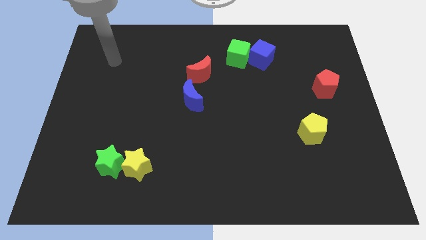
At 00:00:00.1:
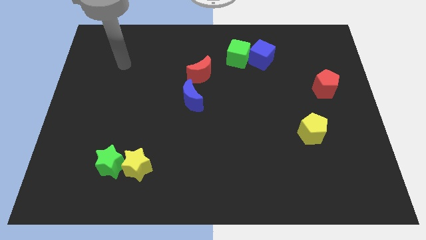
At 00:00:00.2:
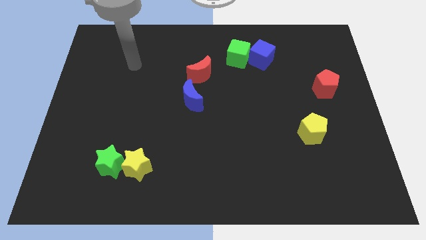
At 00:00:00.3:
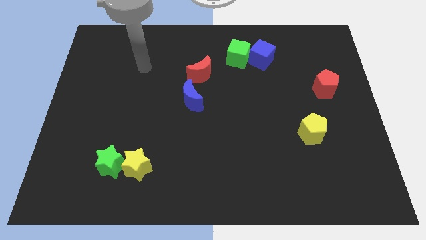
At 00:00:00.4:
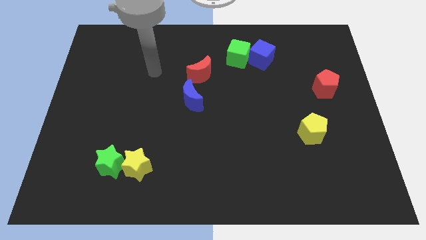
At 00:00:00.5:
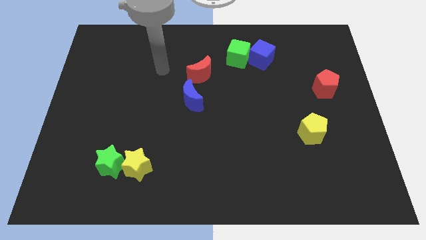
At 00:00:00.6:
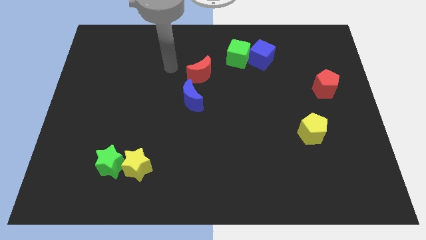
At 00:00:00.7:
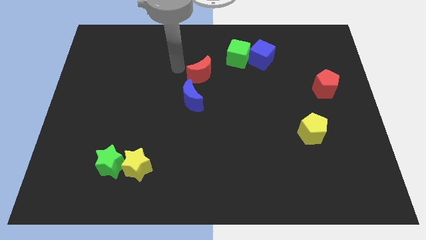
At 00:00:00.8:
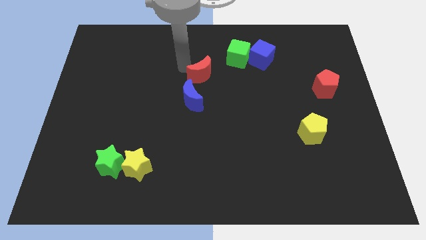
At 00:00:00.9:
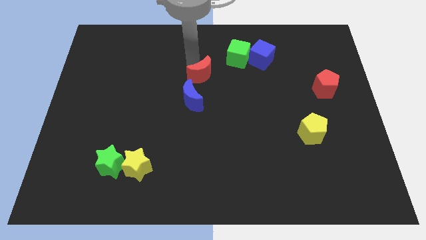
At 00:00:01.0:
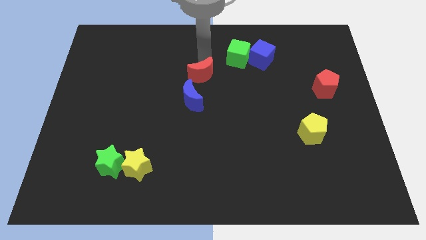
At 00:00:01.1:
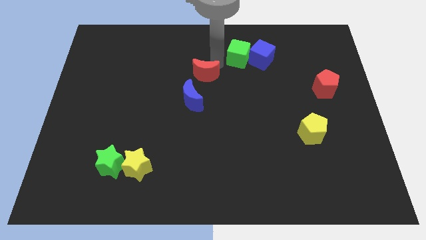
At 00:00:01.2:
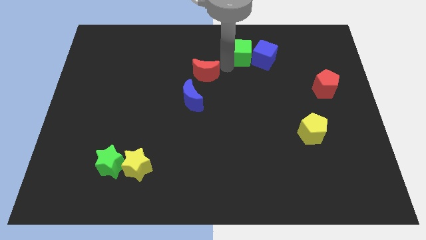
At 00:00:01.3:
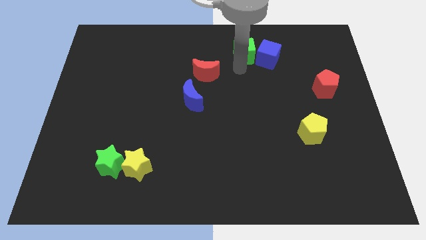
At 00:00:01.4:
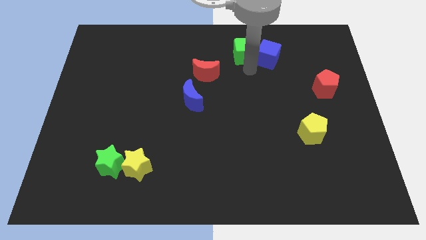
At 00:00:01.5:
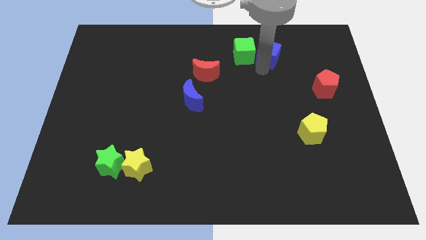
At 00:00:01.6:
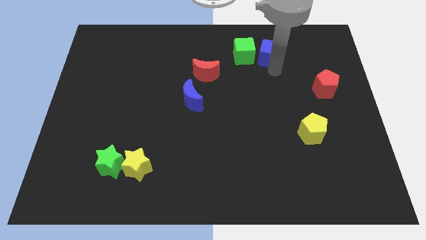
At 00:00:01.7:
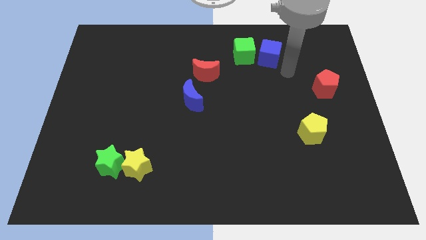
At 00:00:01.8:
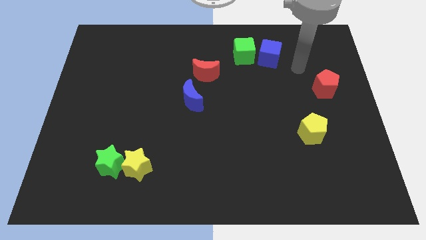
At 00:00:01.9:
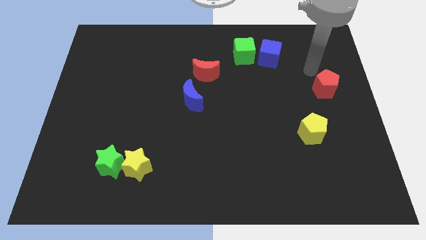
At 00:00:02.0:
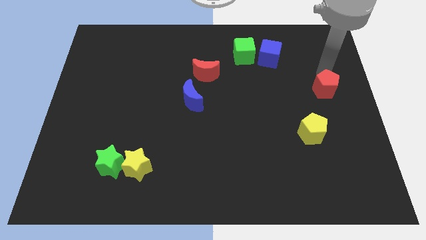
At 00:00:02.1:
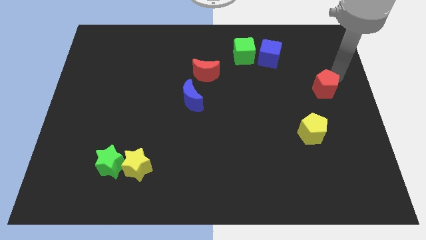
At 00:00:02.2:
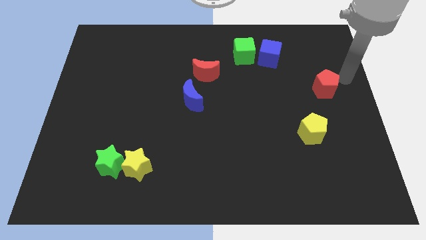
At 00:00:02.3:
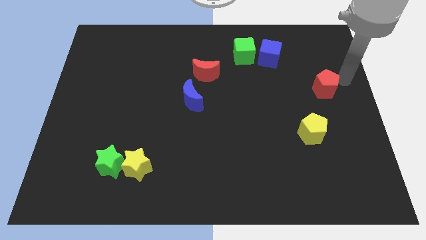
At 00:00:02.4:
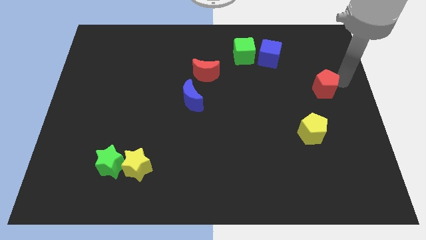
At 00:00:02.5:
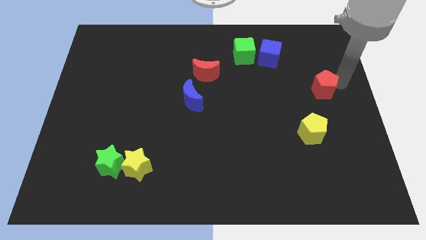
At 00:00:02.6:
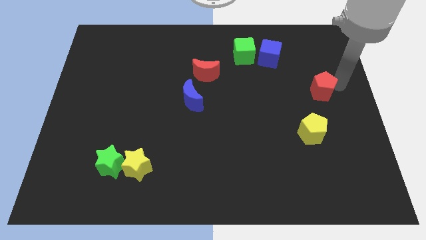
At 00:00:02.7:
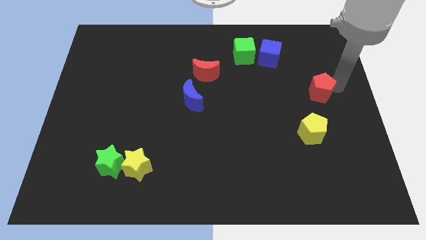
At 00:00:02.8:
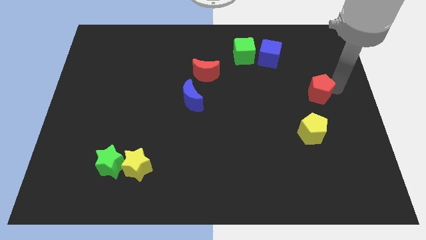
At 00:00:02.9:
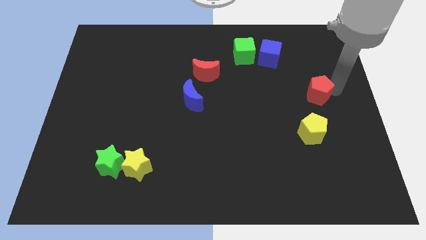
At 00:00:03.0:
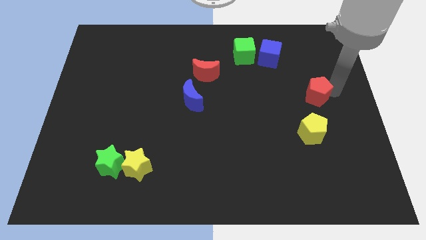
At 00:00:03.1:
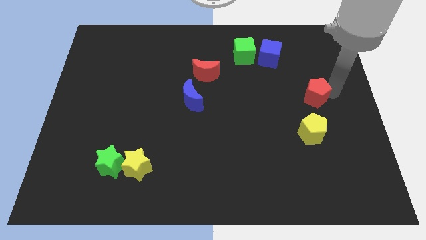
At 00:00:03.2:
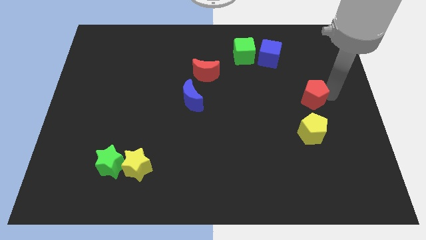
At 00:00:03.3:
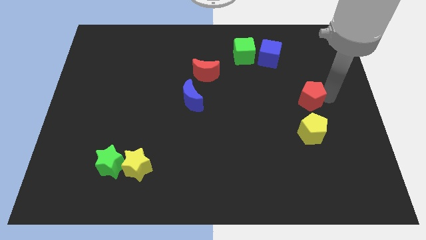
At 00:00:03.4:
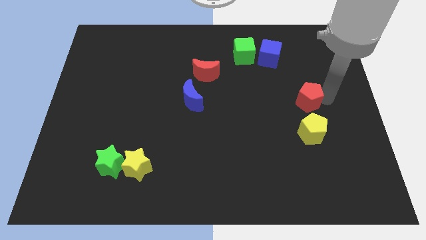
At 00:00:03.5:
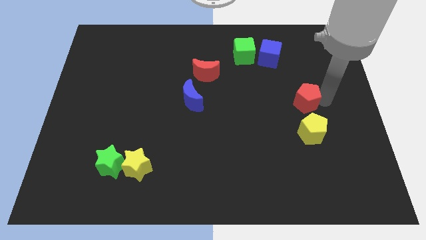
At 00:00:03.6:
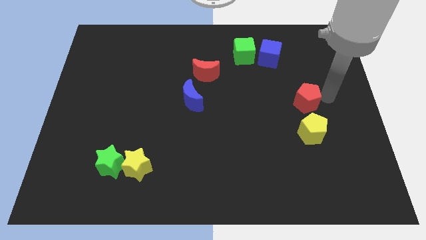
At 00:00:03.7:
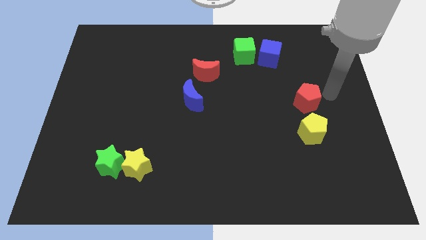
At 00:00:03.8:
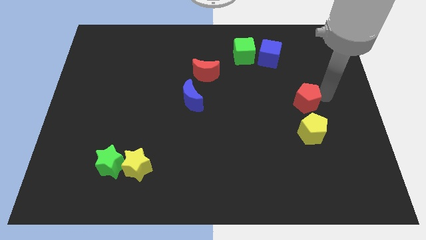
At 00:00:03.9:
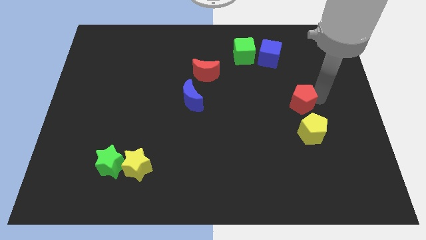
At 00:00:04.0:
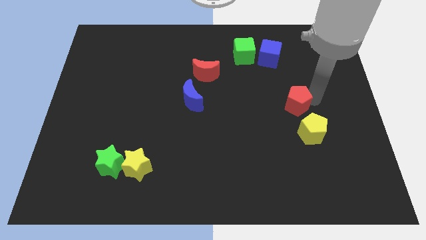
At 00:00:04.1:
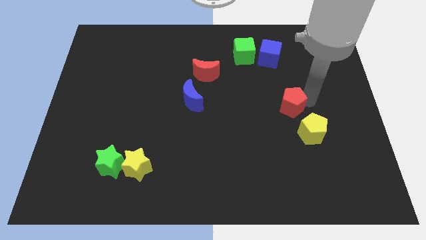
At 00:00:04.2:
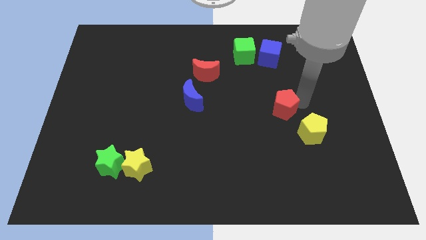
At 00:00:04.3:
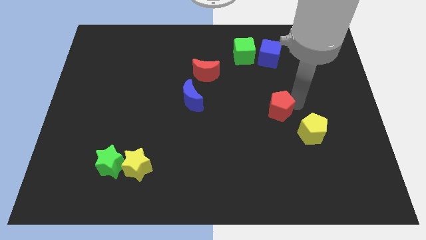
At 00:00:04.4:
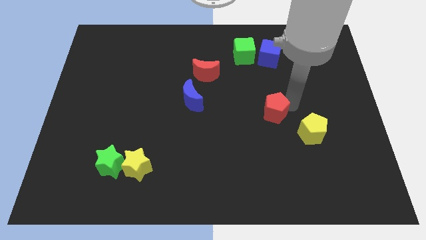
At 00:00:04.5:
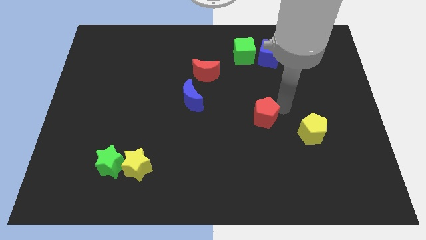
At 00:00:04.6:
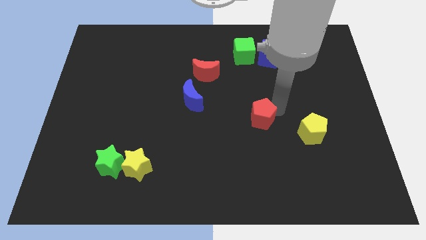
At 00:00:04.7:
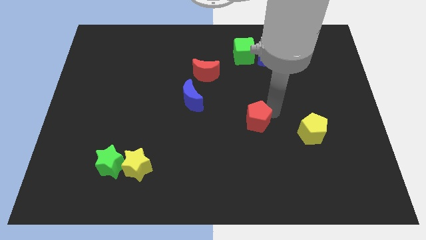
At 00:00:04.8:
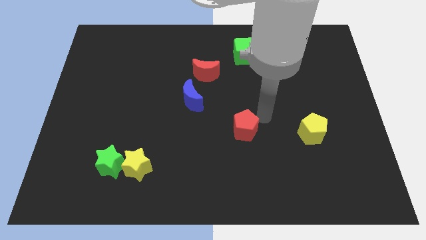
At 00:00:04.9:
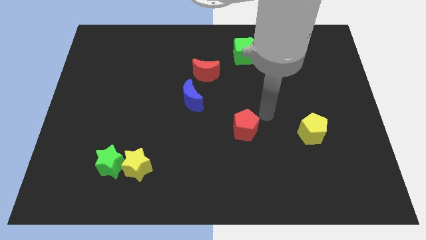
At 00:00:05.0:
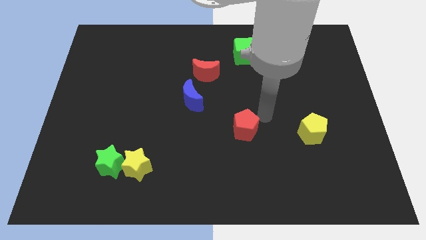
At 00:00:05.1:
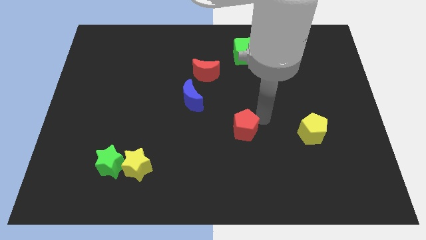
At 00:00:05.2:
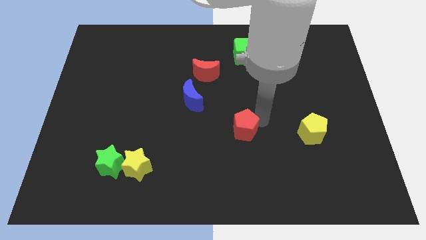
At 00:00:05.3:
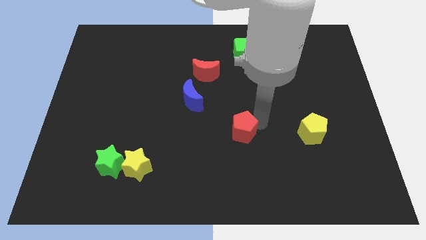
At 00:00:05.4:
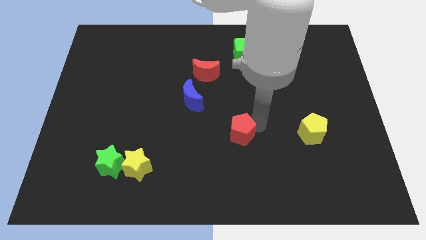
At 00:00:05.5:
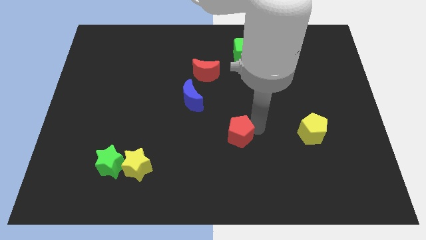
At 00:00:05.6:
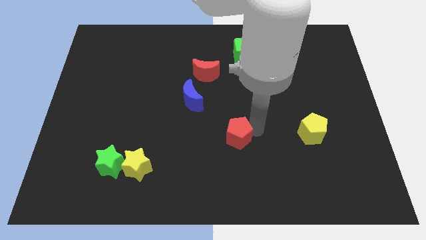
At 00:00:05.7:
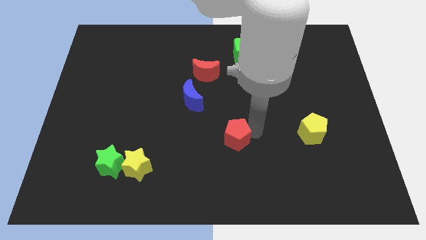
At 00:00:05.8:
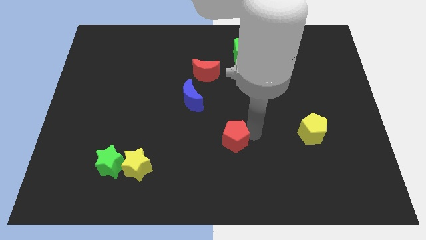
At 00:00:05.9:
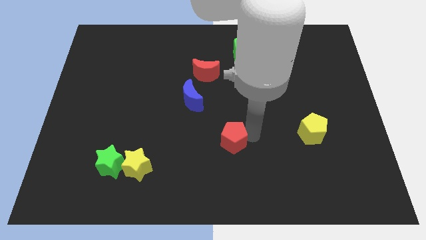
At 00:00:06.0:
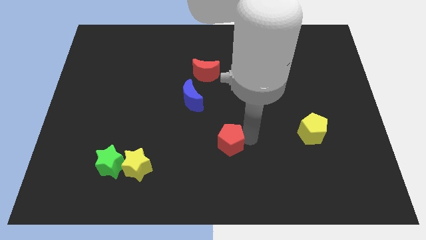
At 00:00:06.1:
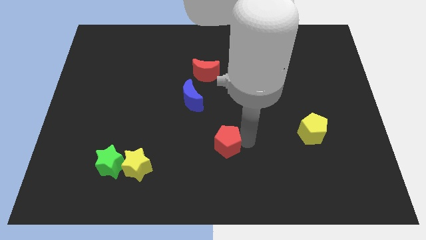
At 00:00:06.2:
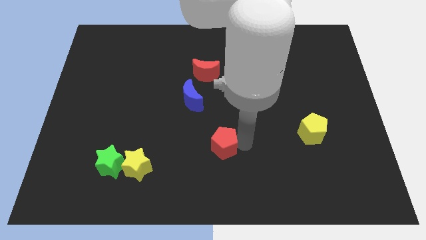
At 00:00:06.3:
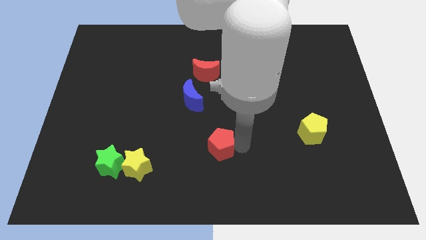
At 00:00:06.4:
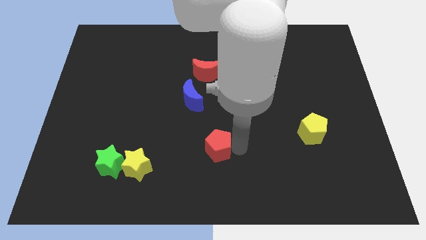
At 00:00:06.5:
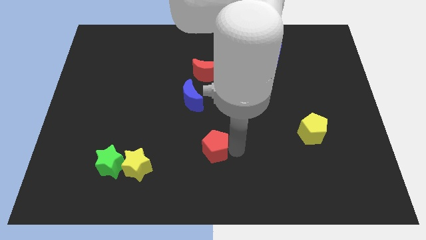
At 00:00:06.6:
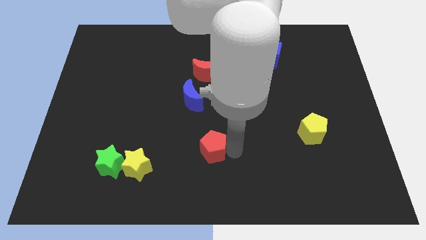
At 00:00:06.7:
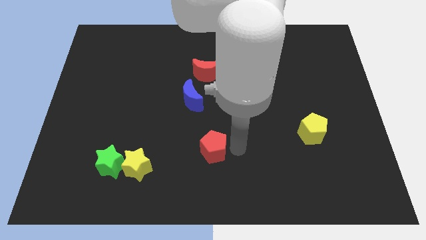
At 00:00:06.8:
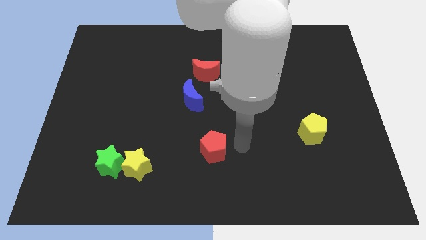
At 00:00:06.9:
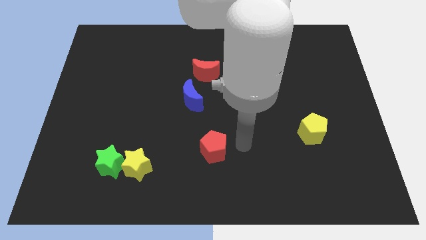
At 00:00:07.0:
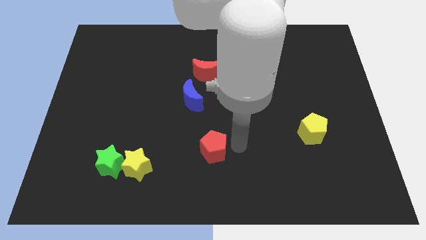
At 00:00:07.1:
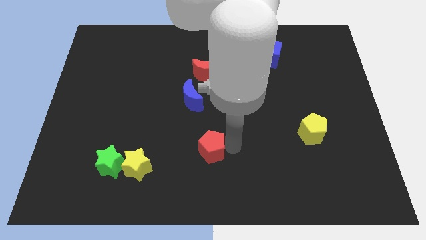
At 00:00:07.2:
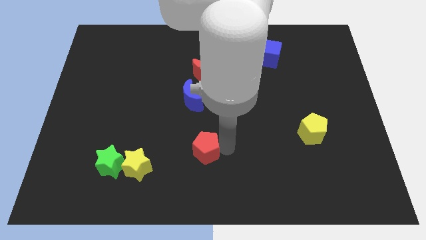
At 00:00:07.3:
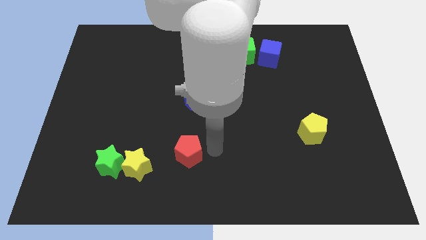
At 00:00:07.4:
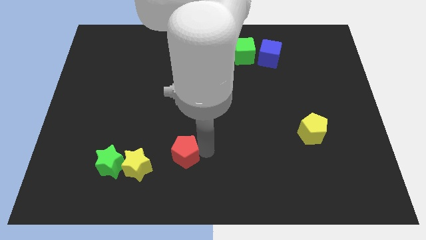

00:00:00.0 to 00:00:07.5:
put the red pentagon just right of the green star
